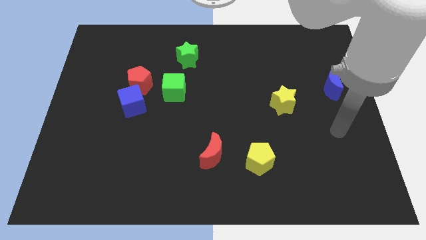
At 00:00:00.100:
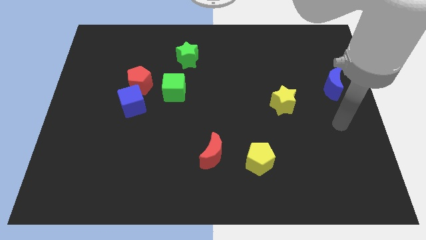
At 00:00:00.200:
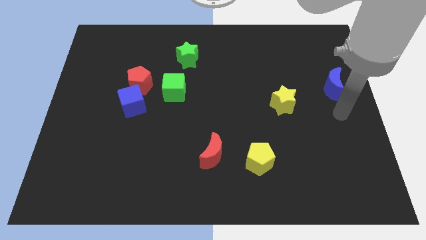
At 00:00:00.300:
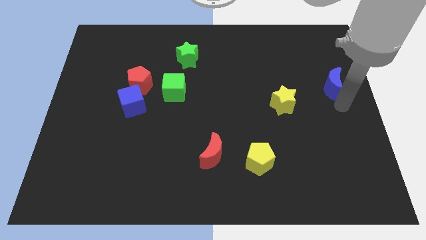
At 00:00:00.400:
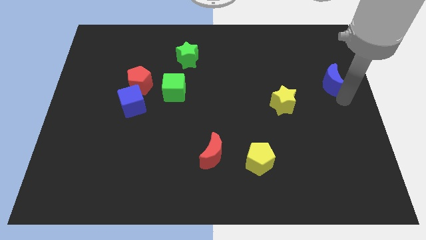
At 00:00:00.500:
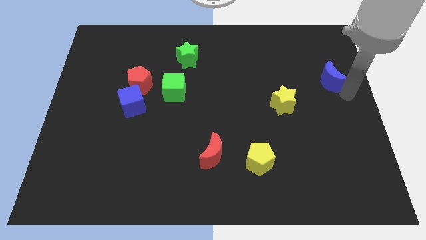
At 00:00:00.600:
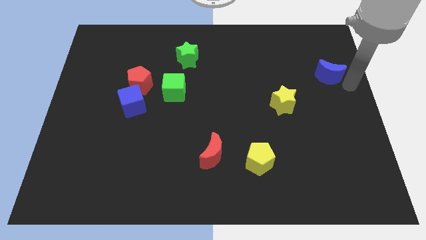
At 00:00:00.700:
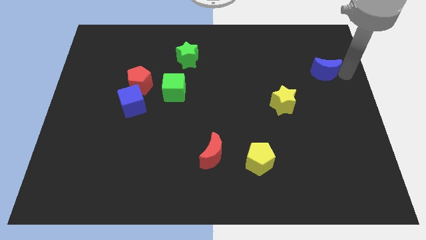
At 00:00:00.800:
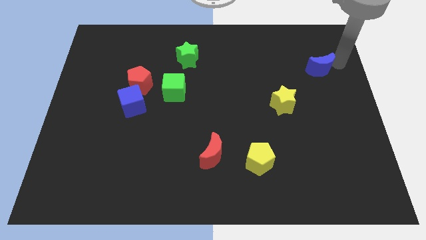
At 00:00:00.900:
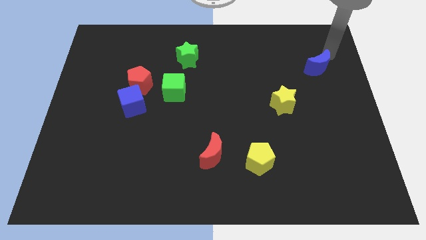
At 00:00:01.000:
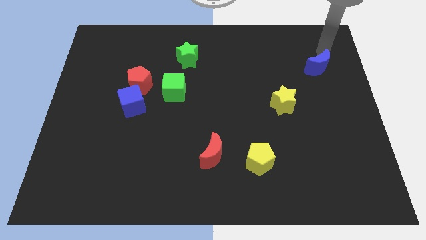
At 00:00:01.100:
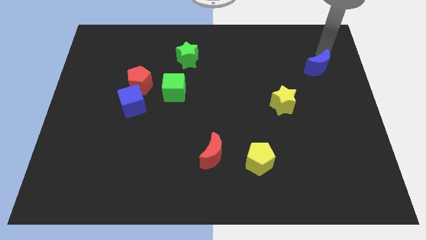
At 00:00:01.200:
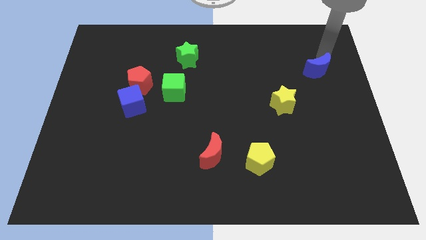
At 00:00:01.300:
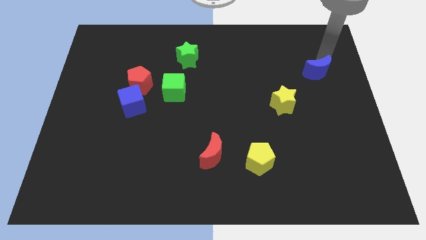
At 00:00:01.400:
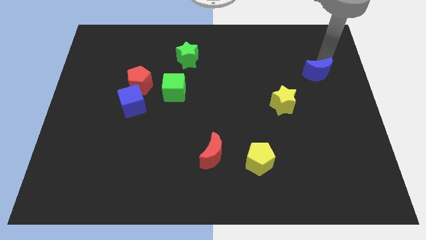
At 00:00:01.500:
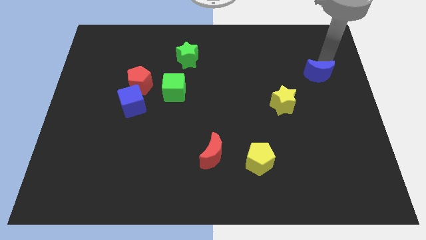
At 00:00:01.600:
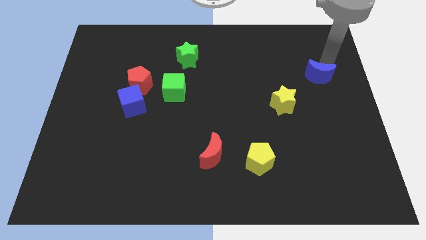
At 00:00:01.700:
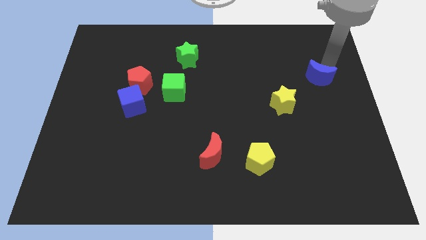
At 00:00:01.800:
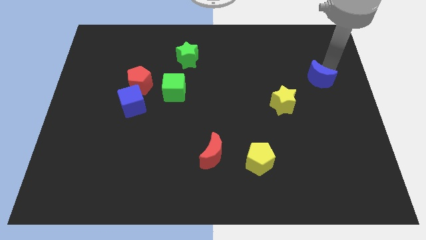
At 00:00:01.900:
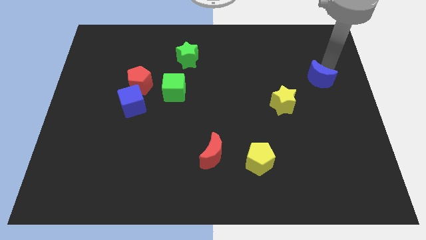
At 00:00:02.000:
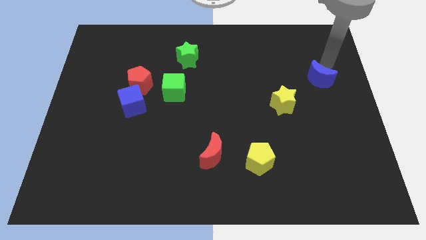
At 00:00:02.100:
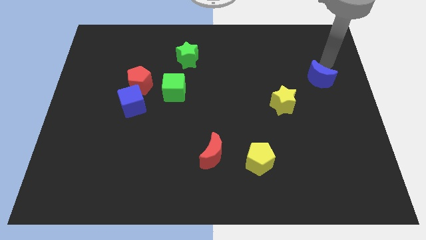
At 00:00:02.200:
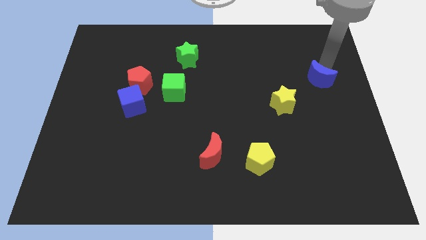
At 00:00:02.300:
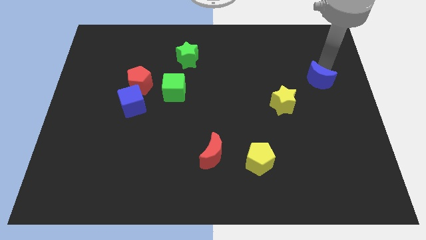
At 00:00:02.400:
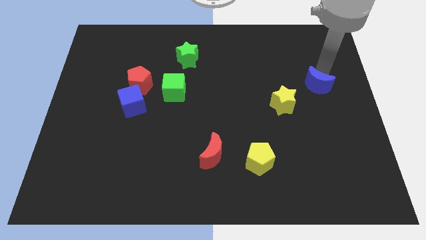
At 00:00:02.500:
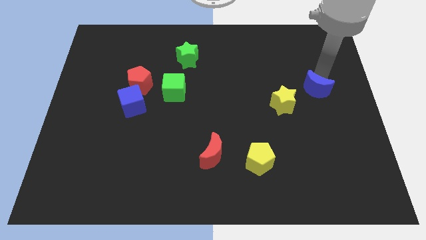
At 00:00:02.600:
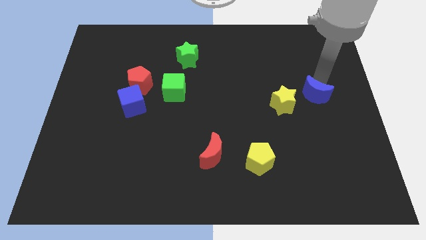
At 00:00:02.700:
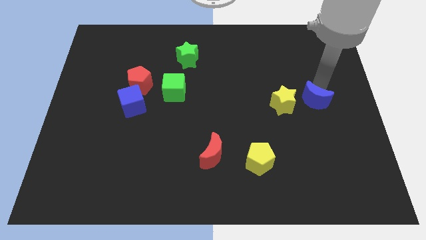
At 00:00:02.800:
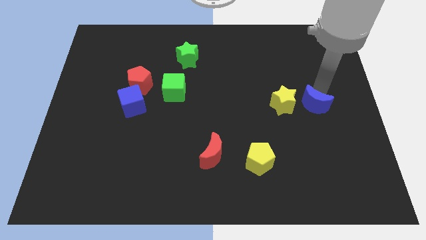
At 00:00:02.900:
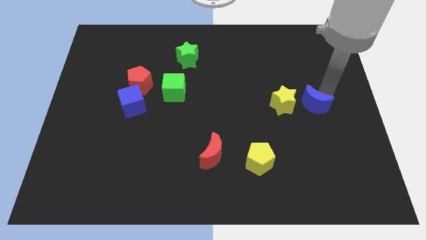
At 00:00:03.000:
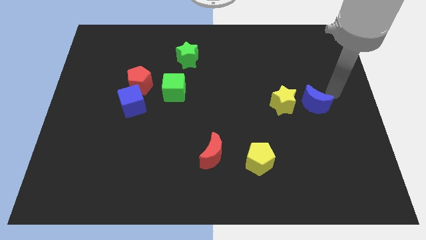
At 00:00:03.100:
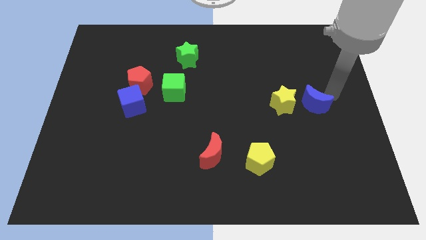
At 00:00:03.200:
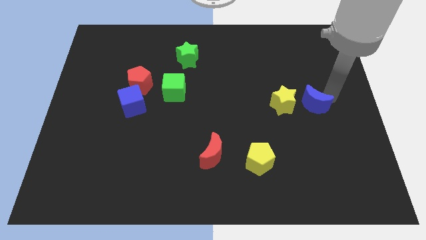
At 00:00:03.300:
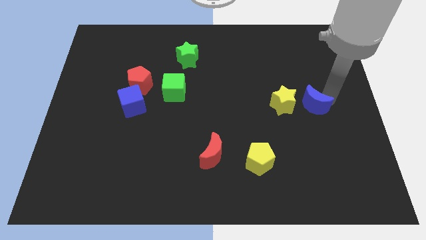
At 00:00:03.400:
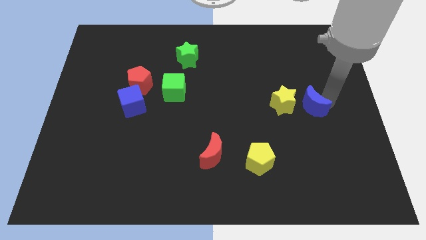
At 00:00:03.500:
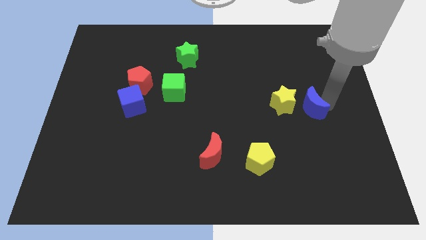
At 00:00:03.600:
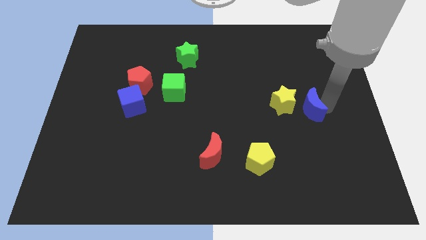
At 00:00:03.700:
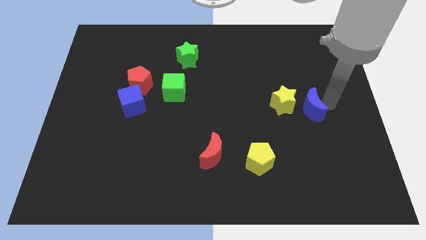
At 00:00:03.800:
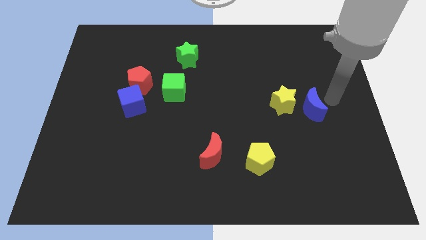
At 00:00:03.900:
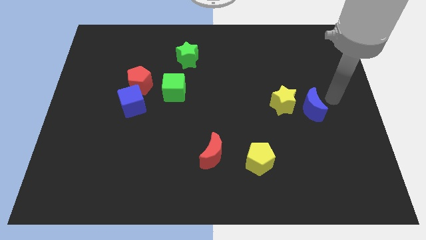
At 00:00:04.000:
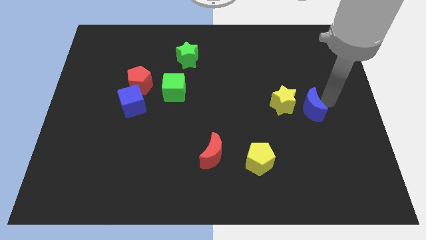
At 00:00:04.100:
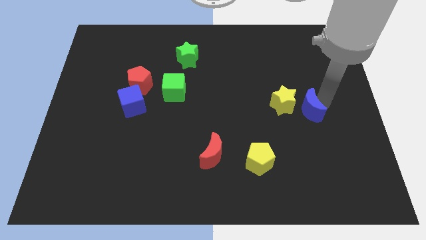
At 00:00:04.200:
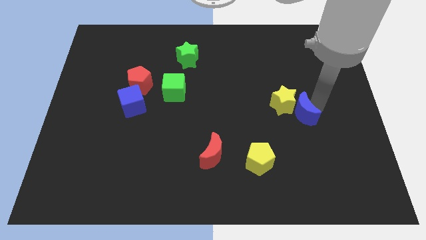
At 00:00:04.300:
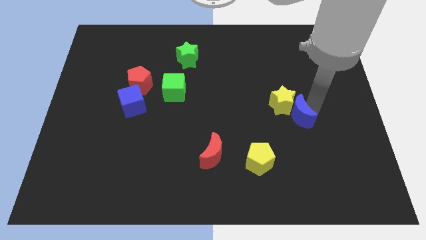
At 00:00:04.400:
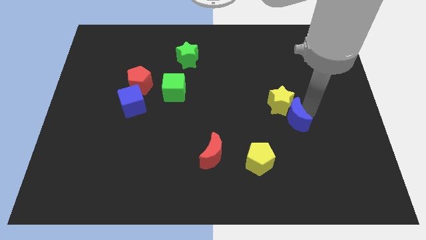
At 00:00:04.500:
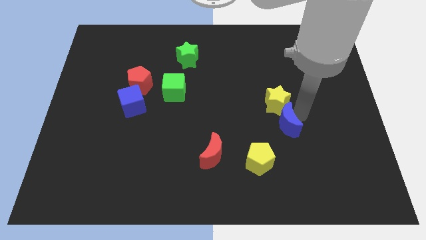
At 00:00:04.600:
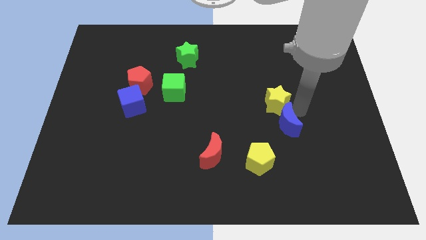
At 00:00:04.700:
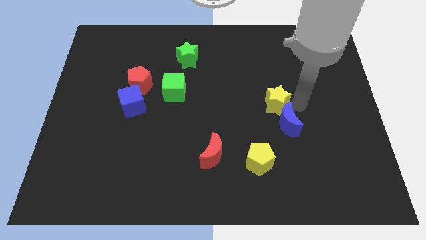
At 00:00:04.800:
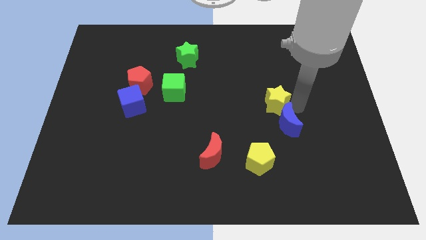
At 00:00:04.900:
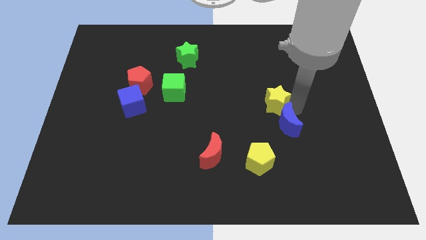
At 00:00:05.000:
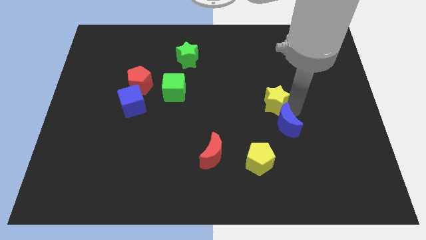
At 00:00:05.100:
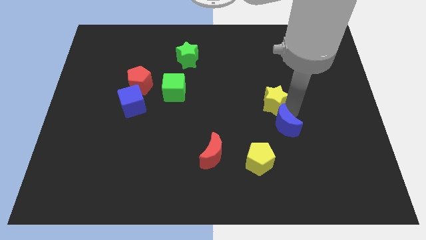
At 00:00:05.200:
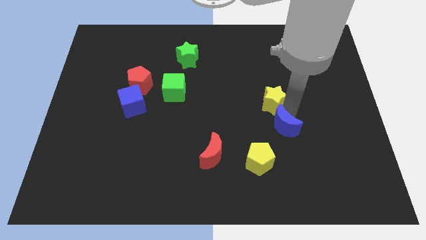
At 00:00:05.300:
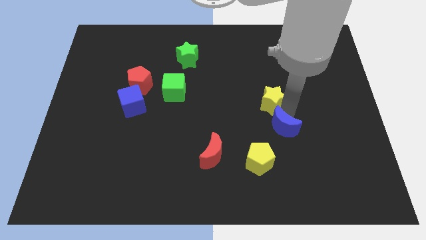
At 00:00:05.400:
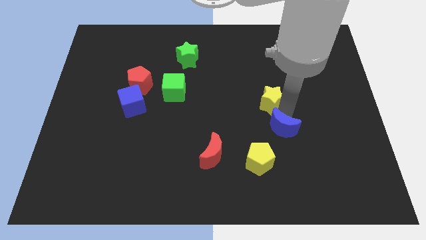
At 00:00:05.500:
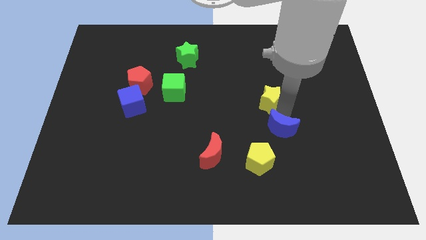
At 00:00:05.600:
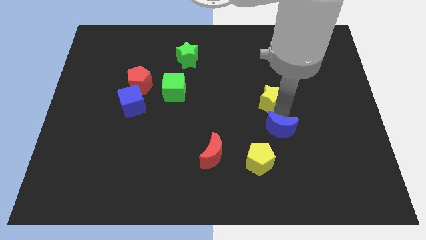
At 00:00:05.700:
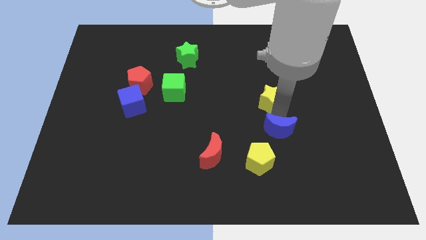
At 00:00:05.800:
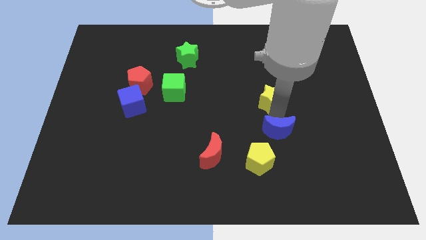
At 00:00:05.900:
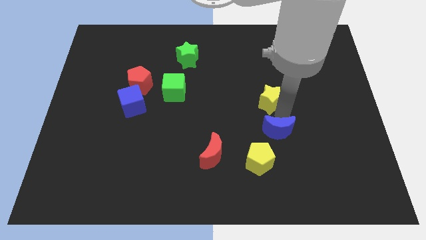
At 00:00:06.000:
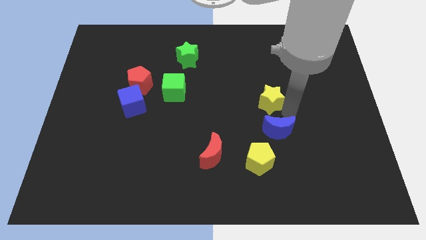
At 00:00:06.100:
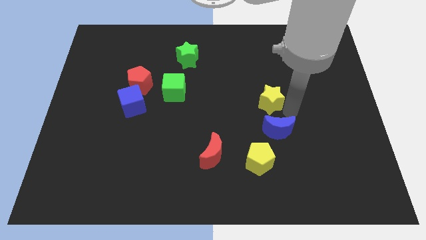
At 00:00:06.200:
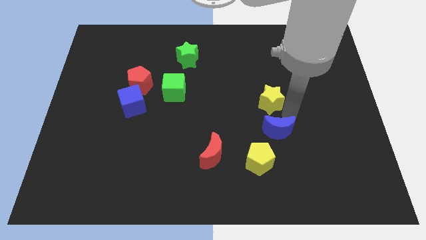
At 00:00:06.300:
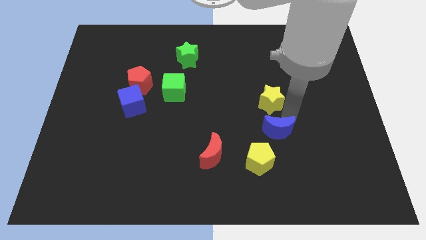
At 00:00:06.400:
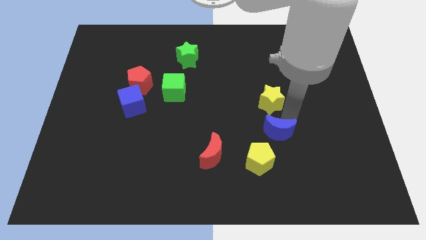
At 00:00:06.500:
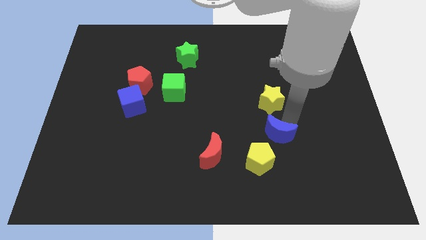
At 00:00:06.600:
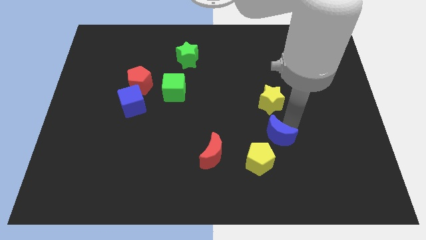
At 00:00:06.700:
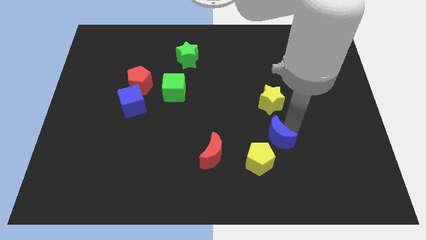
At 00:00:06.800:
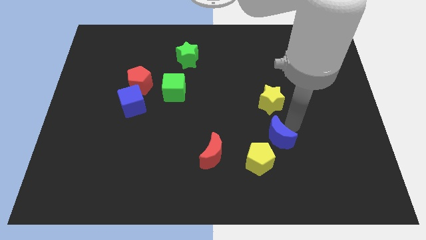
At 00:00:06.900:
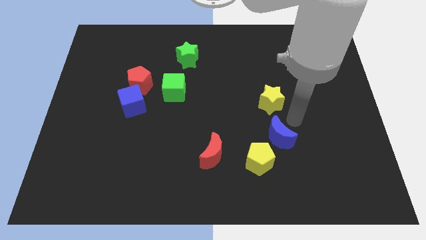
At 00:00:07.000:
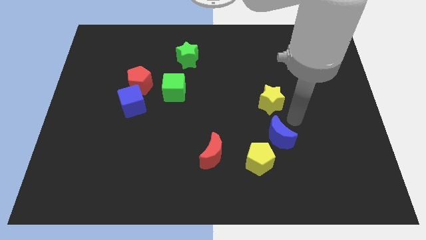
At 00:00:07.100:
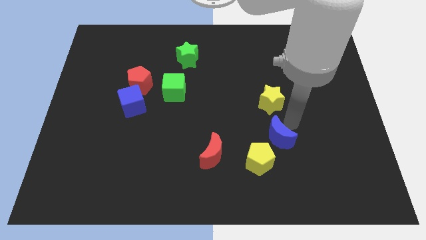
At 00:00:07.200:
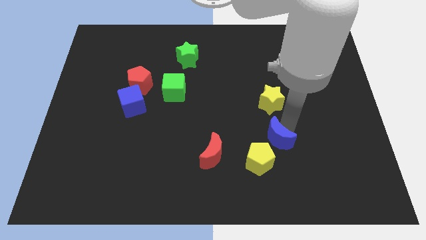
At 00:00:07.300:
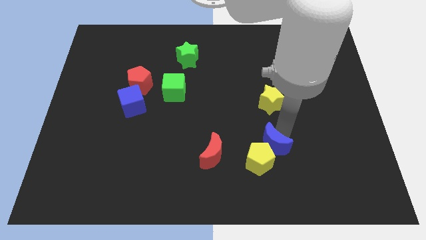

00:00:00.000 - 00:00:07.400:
move the blue moon next to the yellow pentagon
